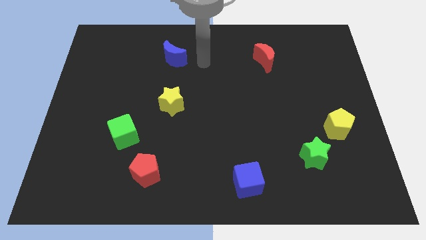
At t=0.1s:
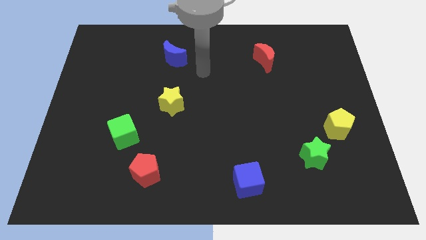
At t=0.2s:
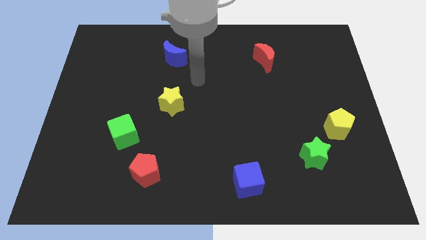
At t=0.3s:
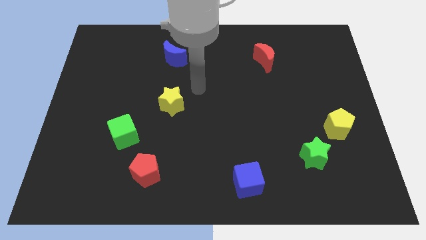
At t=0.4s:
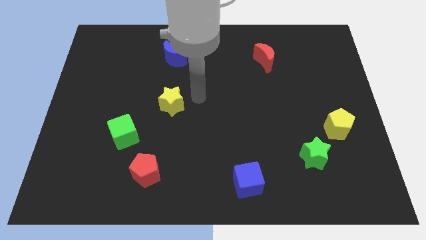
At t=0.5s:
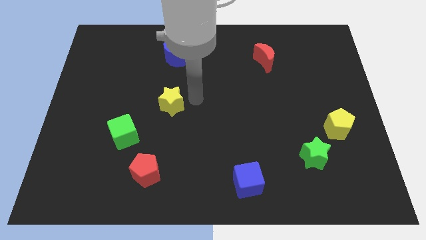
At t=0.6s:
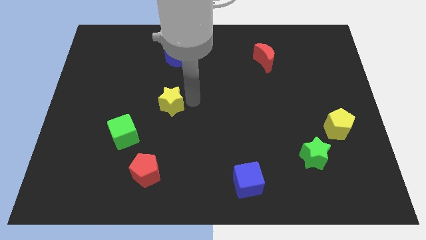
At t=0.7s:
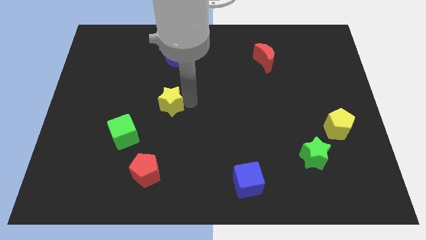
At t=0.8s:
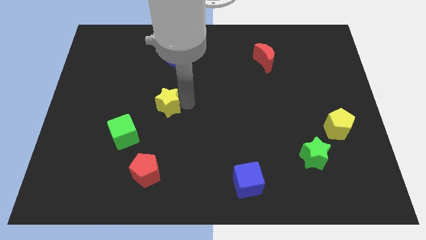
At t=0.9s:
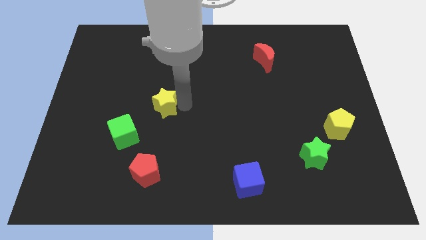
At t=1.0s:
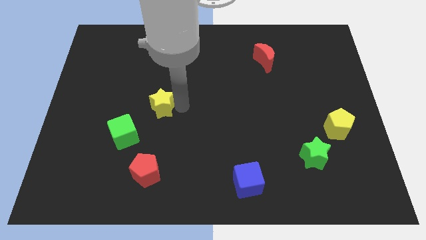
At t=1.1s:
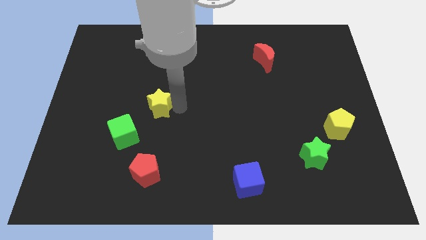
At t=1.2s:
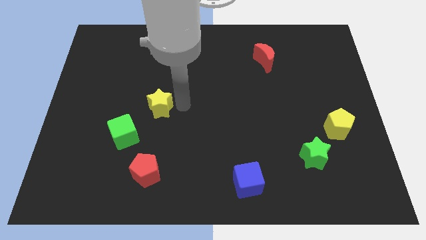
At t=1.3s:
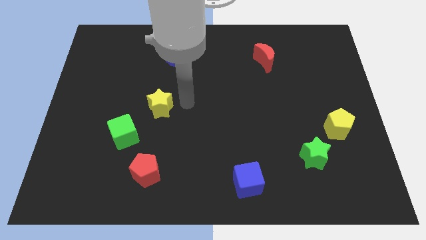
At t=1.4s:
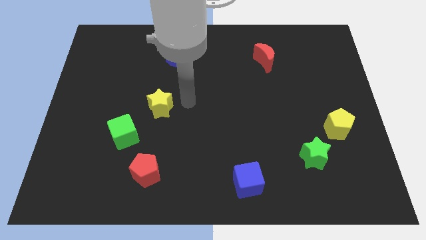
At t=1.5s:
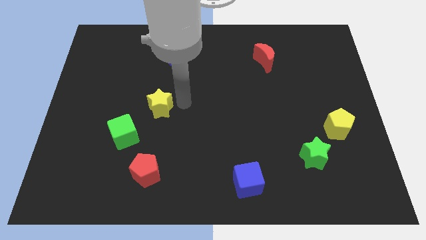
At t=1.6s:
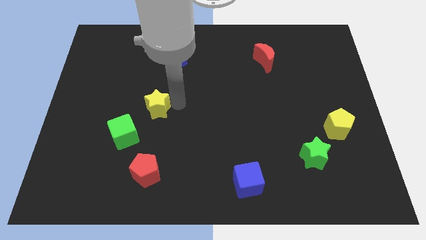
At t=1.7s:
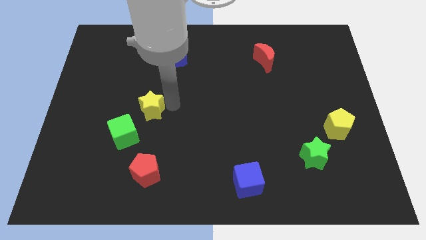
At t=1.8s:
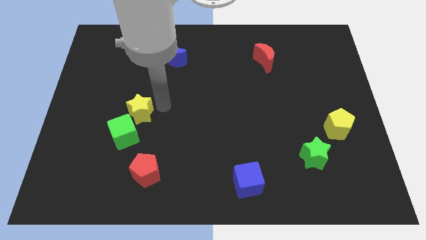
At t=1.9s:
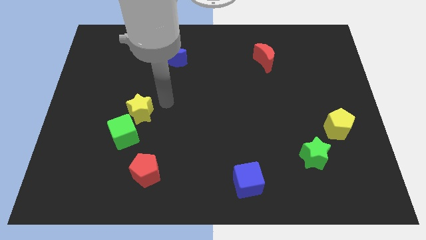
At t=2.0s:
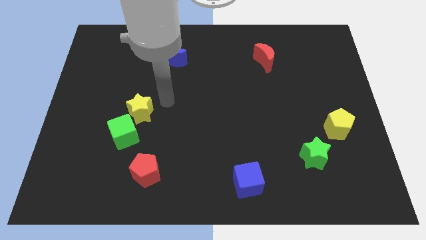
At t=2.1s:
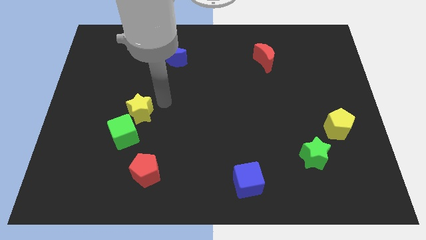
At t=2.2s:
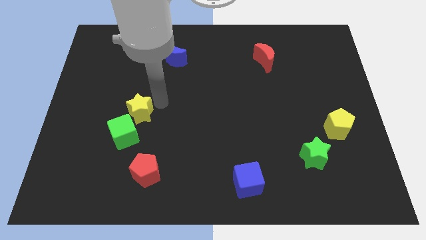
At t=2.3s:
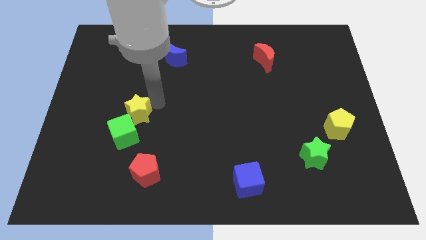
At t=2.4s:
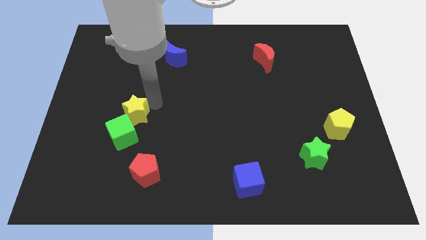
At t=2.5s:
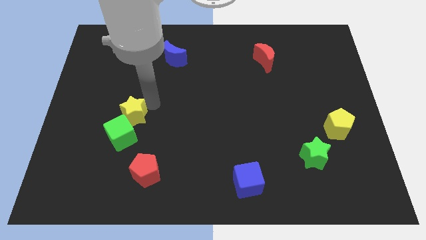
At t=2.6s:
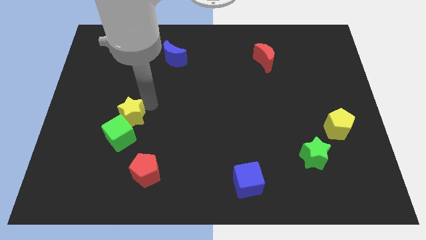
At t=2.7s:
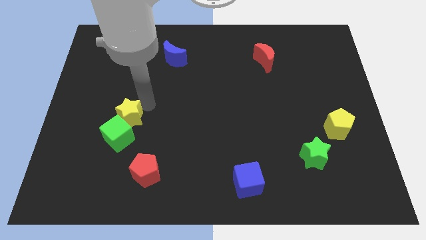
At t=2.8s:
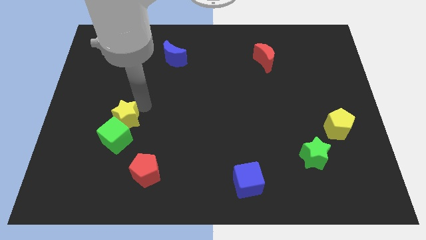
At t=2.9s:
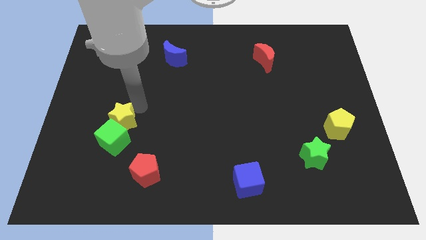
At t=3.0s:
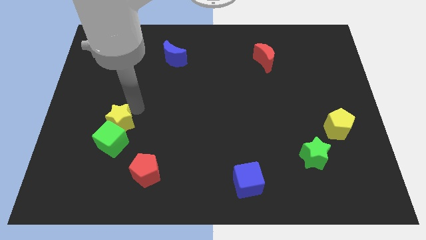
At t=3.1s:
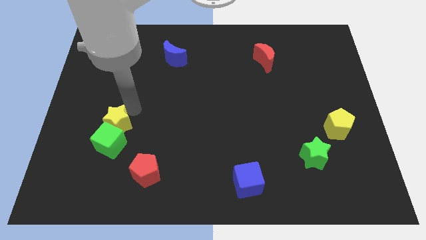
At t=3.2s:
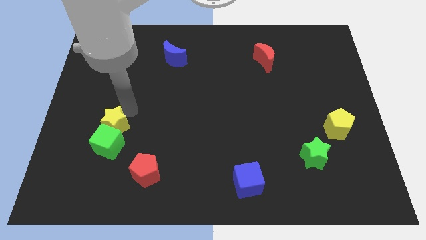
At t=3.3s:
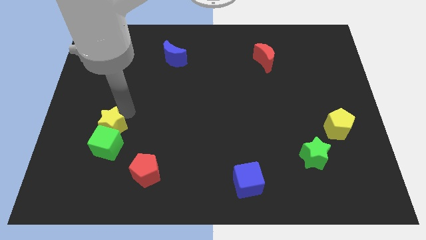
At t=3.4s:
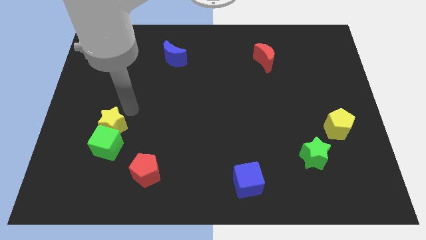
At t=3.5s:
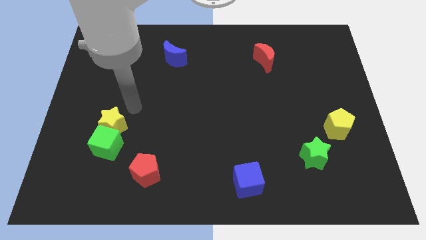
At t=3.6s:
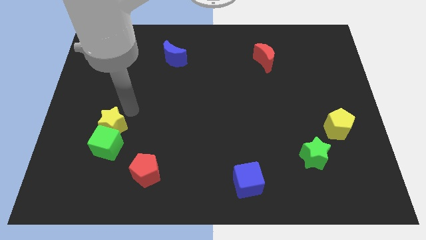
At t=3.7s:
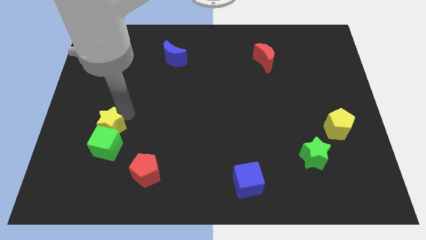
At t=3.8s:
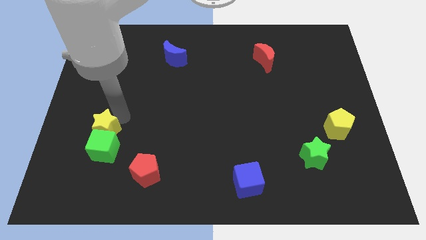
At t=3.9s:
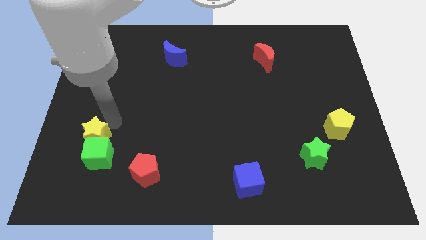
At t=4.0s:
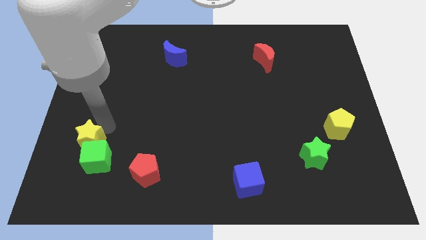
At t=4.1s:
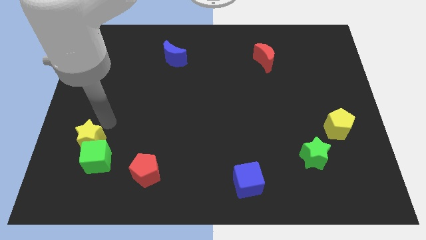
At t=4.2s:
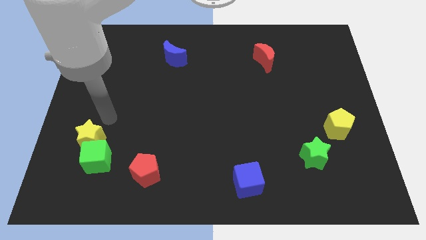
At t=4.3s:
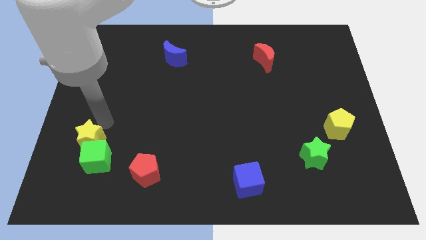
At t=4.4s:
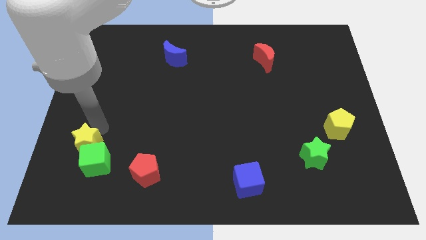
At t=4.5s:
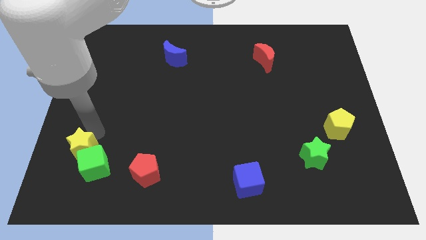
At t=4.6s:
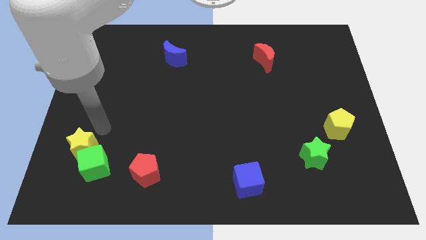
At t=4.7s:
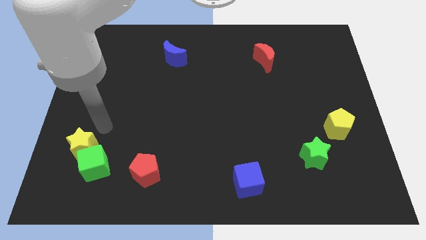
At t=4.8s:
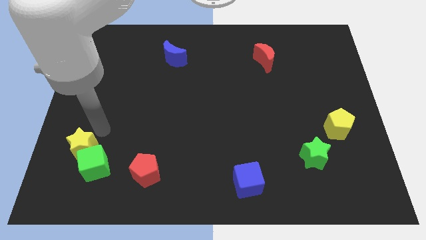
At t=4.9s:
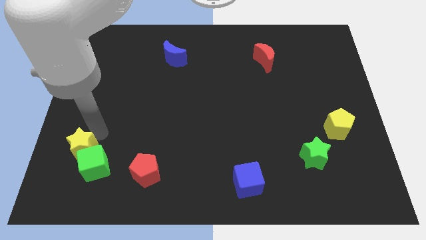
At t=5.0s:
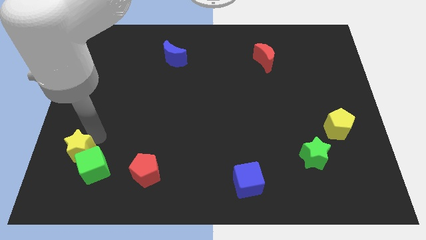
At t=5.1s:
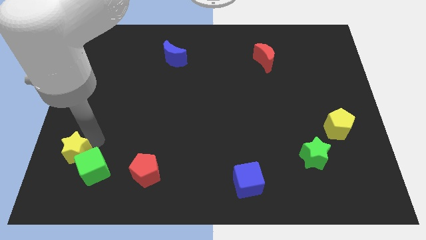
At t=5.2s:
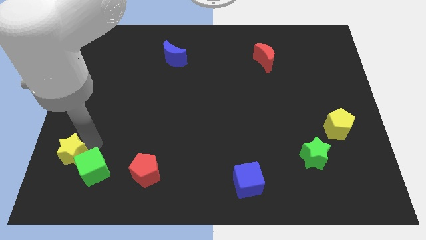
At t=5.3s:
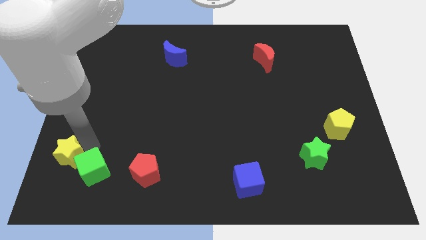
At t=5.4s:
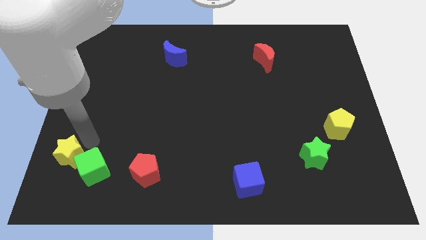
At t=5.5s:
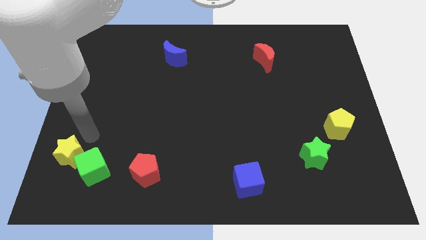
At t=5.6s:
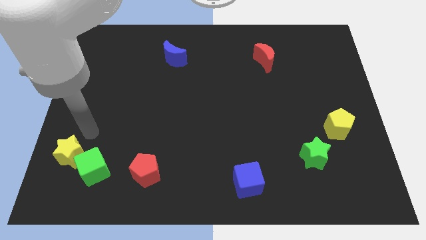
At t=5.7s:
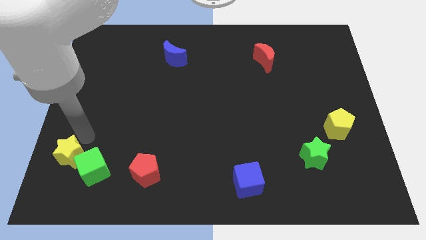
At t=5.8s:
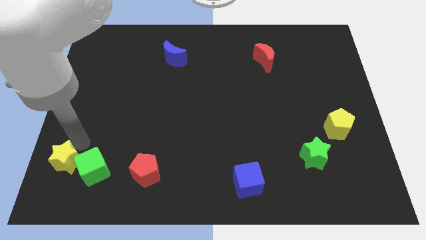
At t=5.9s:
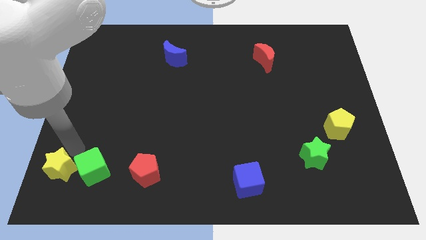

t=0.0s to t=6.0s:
move the yellow star to the bottom left

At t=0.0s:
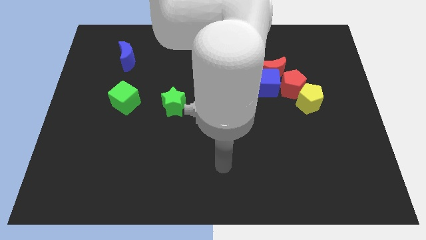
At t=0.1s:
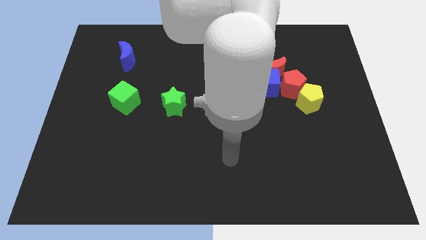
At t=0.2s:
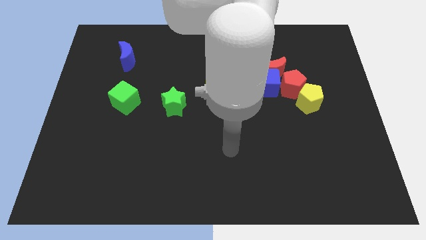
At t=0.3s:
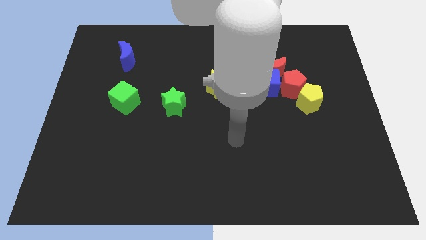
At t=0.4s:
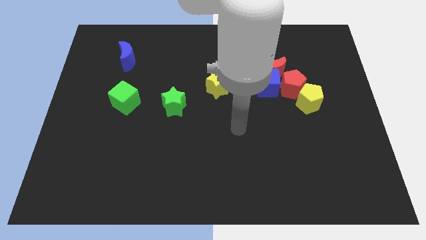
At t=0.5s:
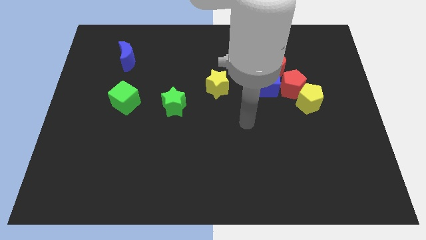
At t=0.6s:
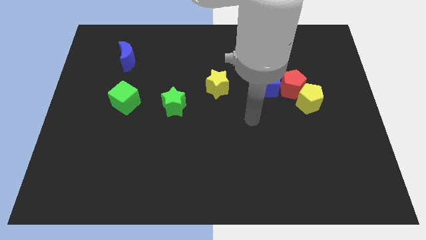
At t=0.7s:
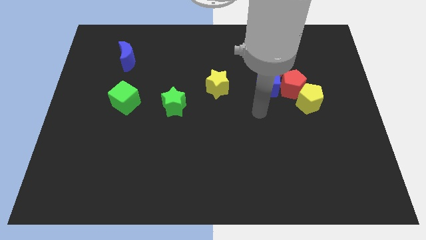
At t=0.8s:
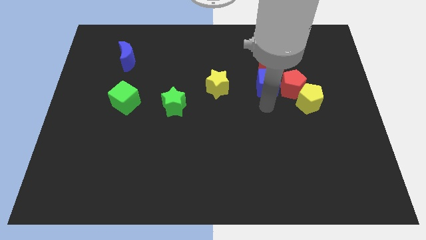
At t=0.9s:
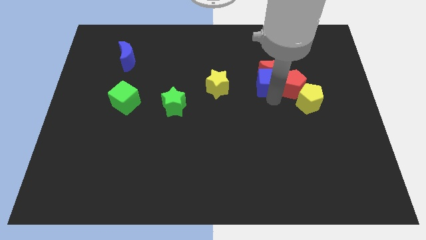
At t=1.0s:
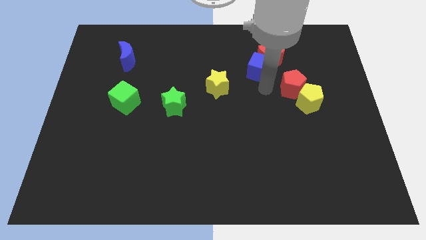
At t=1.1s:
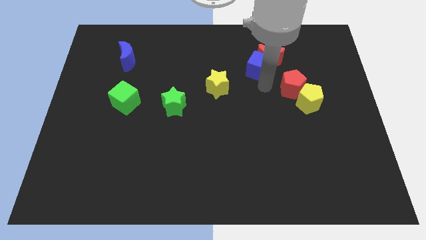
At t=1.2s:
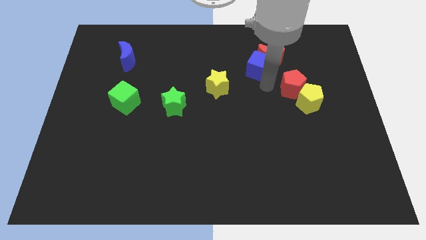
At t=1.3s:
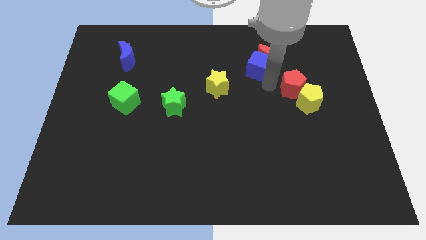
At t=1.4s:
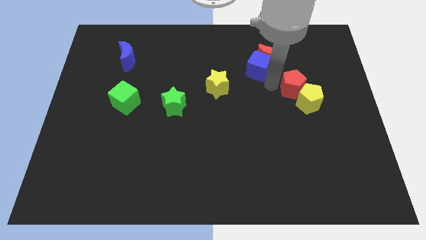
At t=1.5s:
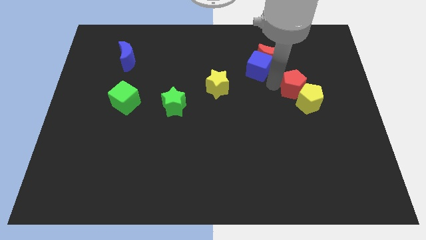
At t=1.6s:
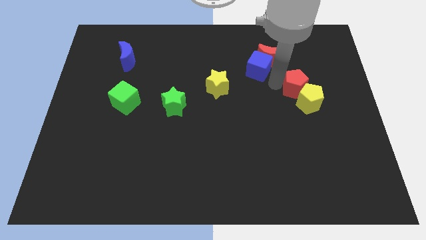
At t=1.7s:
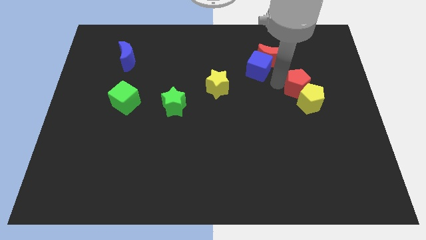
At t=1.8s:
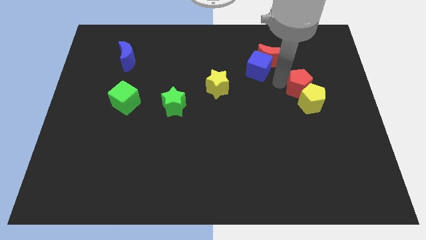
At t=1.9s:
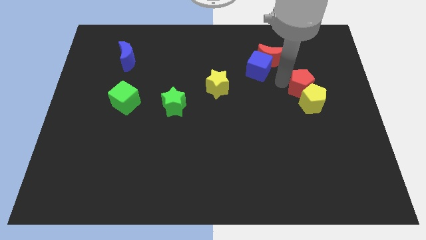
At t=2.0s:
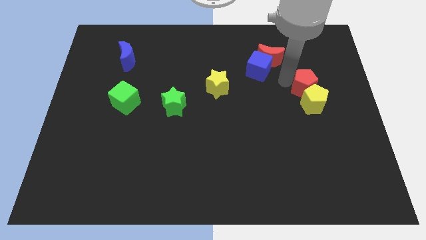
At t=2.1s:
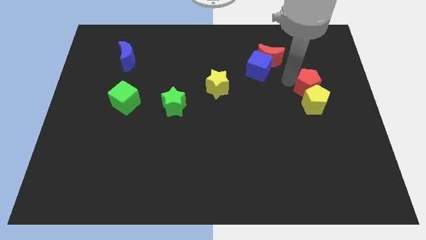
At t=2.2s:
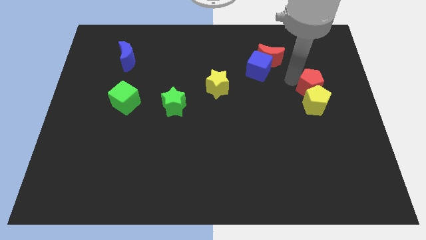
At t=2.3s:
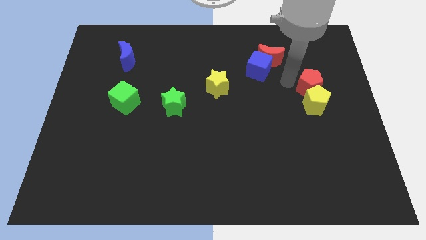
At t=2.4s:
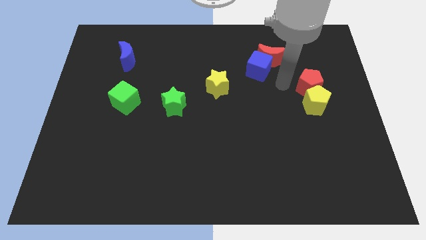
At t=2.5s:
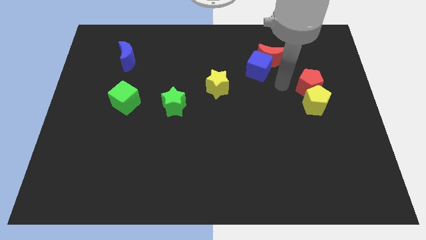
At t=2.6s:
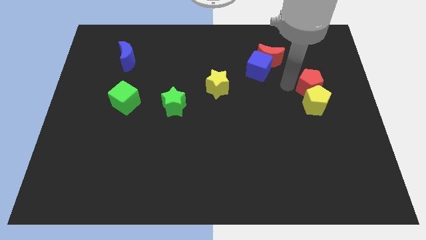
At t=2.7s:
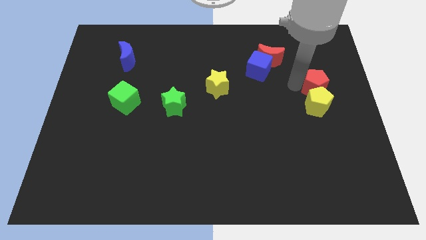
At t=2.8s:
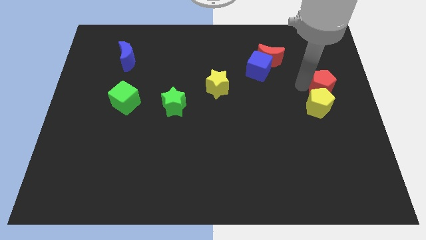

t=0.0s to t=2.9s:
move the red pentagon to the right side
